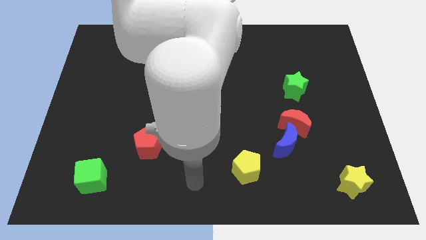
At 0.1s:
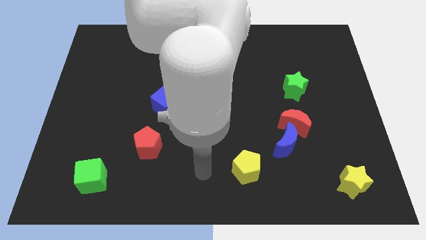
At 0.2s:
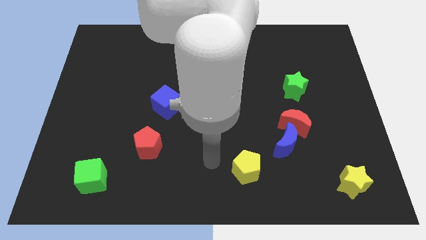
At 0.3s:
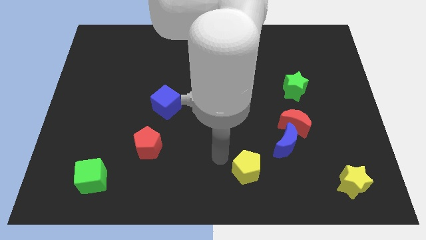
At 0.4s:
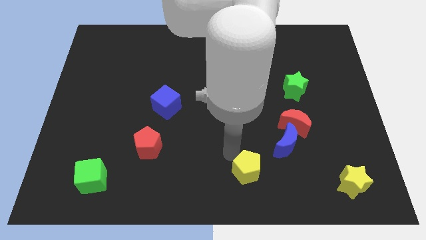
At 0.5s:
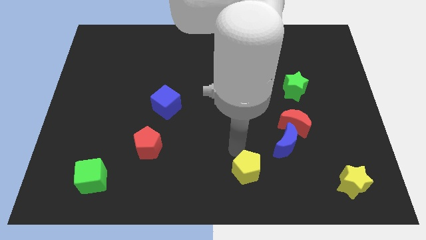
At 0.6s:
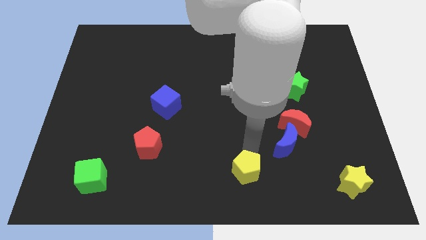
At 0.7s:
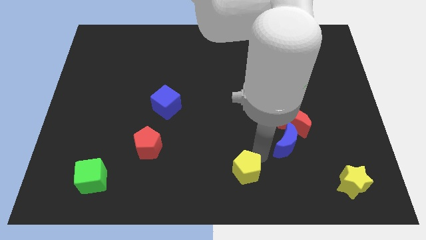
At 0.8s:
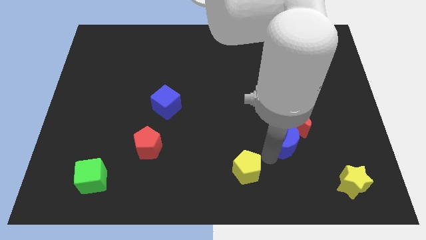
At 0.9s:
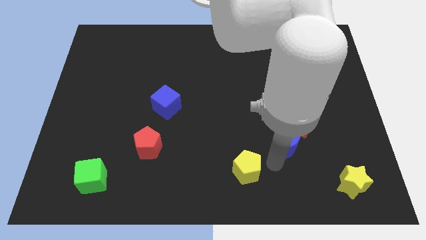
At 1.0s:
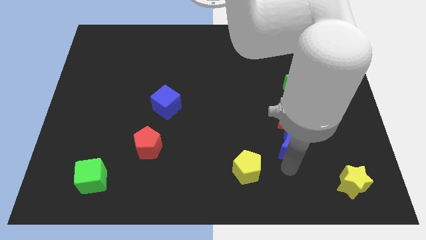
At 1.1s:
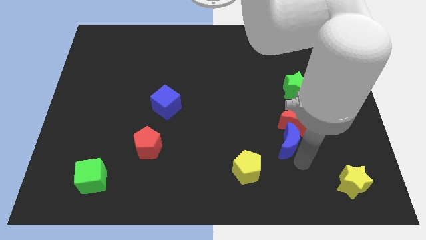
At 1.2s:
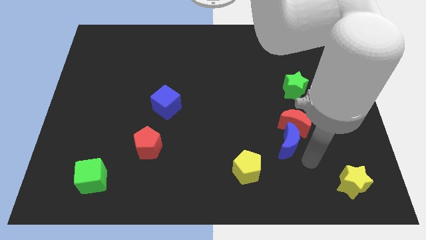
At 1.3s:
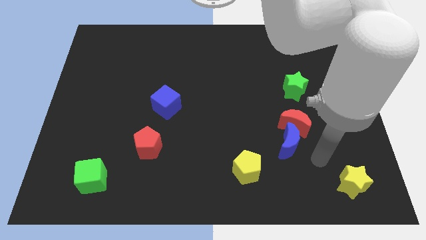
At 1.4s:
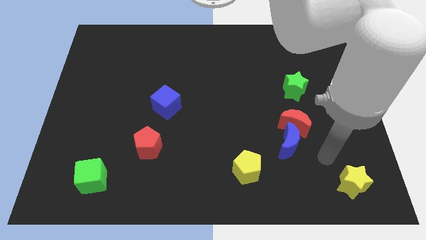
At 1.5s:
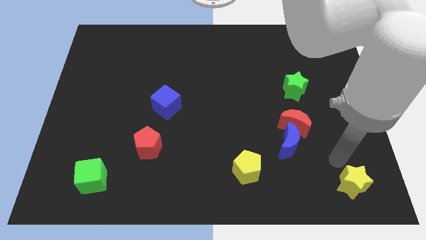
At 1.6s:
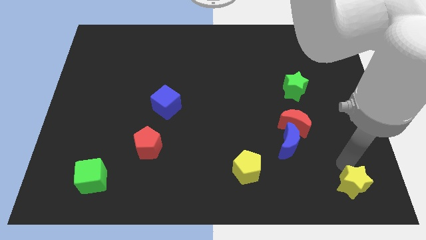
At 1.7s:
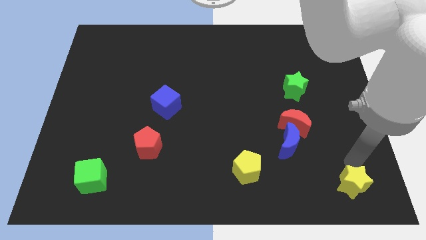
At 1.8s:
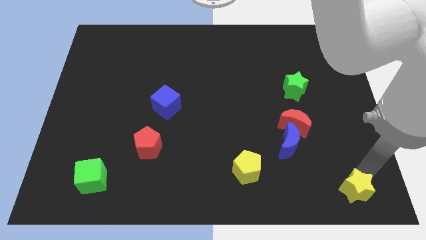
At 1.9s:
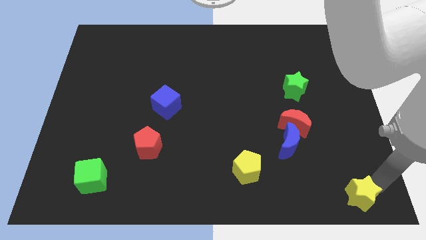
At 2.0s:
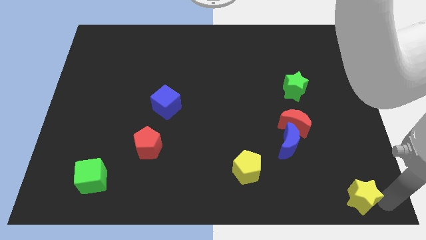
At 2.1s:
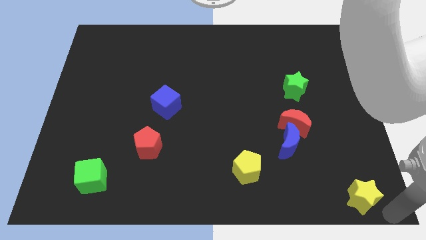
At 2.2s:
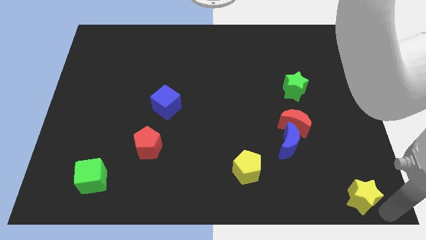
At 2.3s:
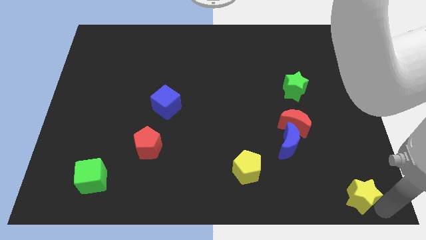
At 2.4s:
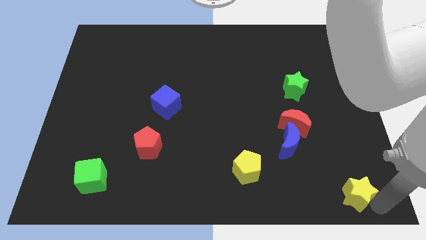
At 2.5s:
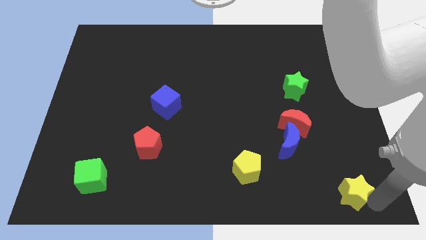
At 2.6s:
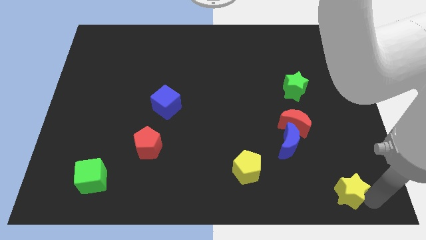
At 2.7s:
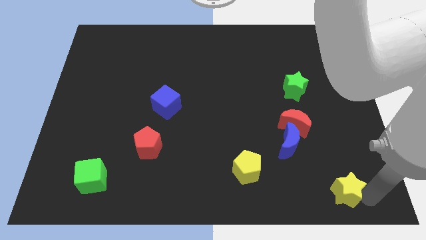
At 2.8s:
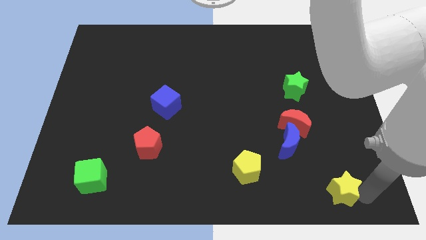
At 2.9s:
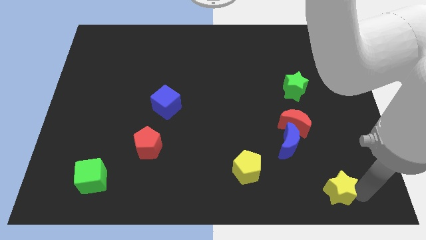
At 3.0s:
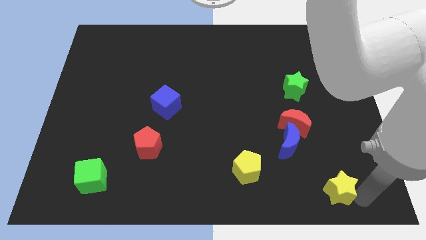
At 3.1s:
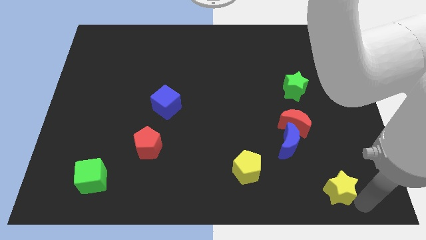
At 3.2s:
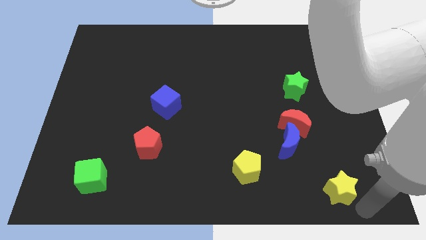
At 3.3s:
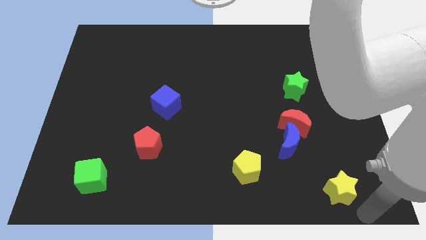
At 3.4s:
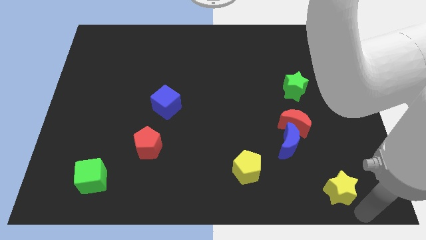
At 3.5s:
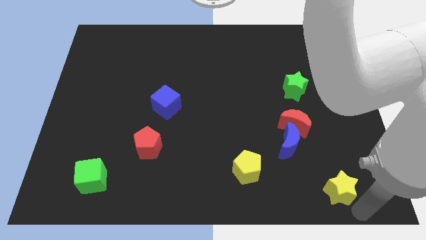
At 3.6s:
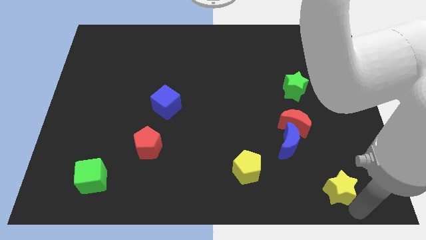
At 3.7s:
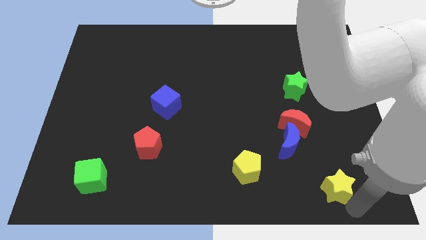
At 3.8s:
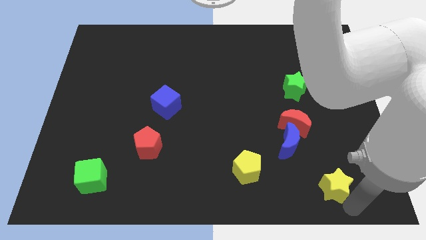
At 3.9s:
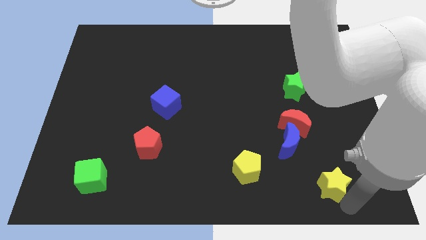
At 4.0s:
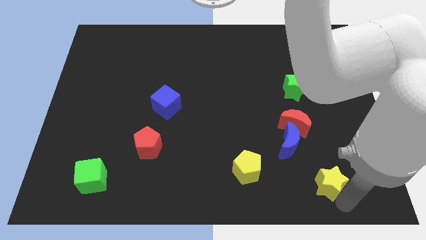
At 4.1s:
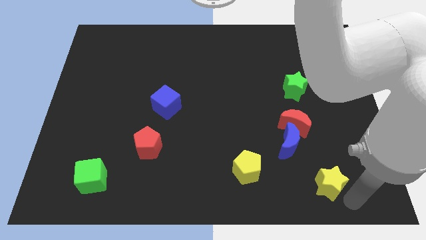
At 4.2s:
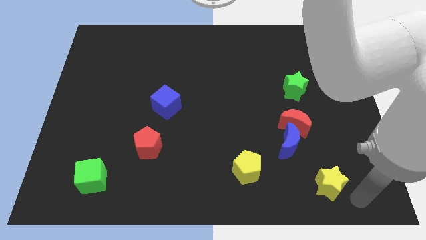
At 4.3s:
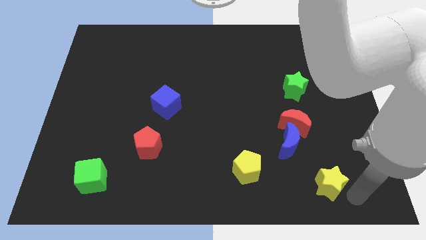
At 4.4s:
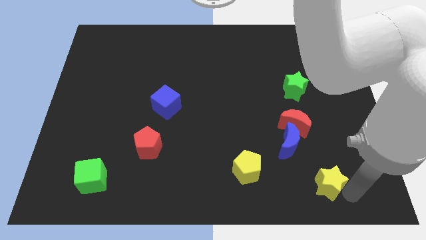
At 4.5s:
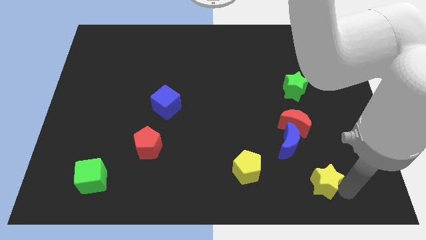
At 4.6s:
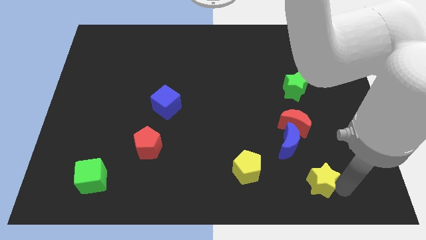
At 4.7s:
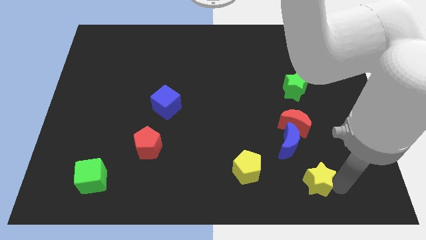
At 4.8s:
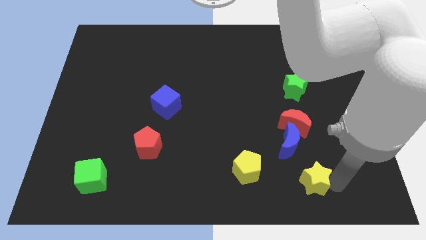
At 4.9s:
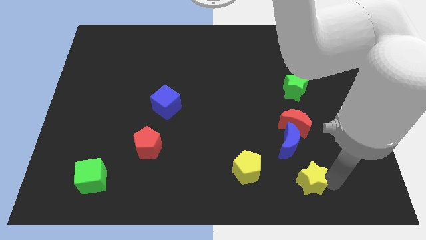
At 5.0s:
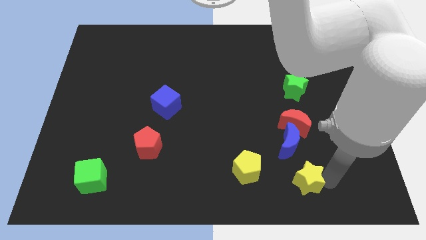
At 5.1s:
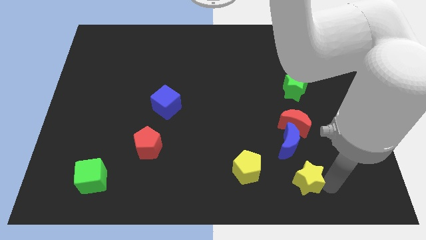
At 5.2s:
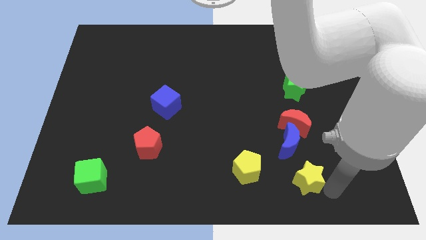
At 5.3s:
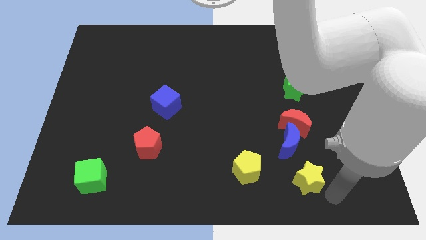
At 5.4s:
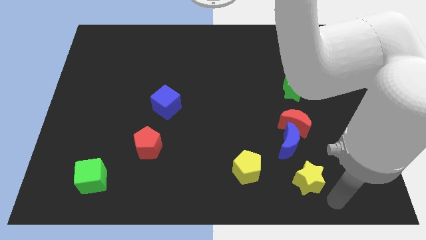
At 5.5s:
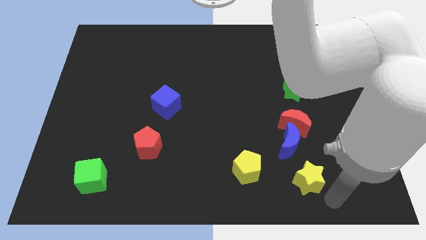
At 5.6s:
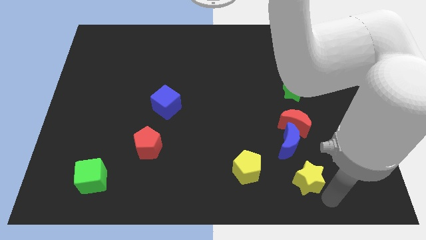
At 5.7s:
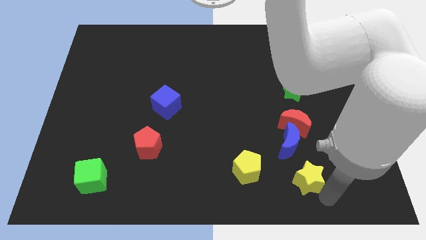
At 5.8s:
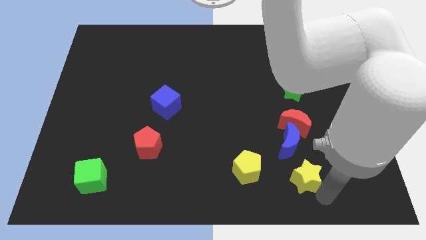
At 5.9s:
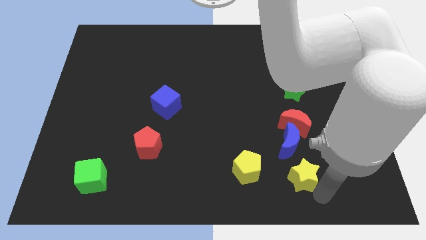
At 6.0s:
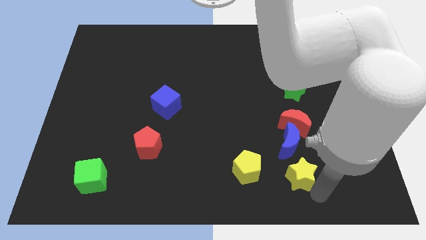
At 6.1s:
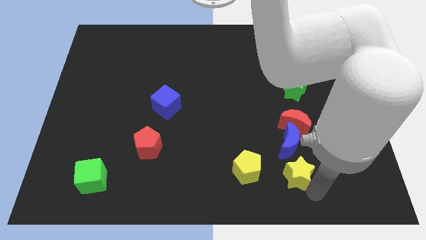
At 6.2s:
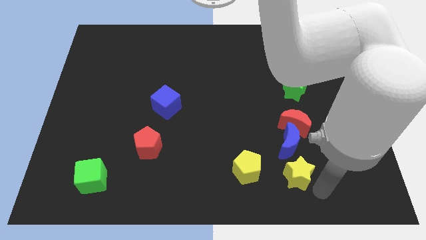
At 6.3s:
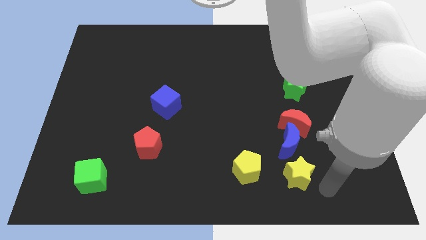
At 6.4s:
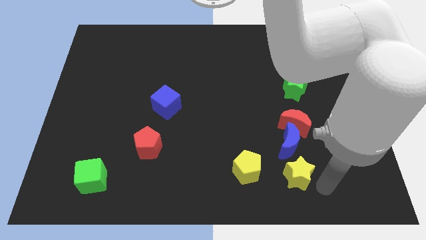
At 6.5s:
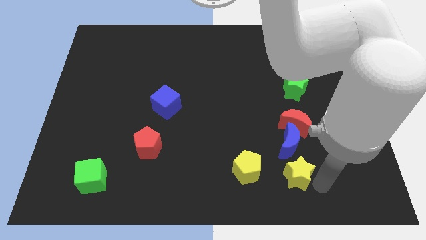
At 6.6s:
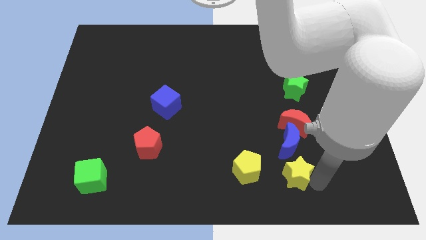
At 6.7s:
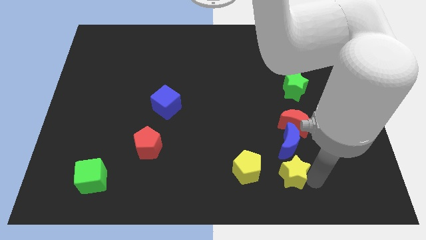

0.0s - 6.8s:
slide the yellow star diagonally down and to the left of the blue moon
